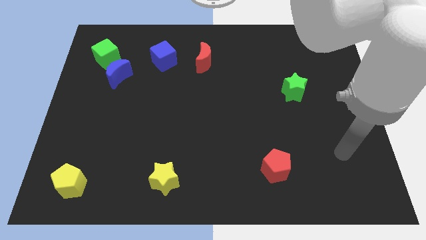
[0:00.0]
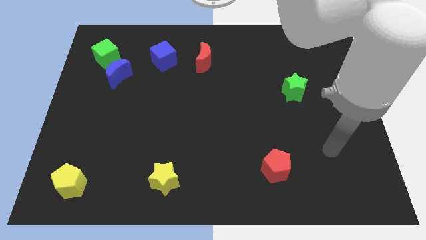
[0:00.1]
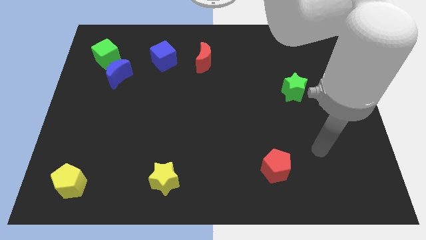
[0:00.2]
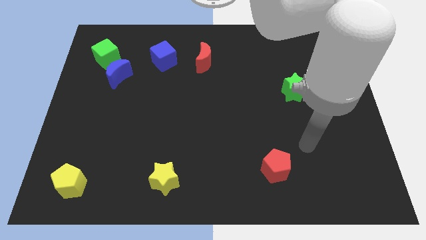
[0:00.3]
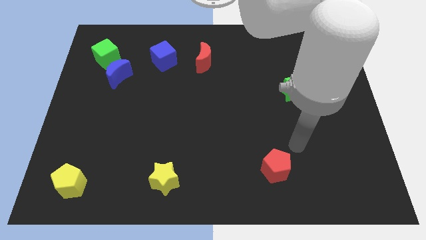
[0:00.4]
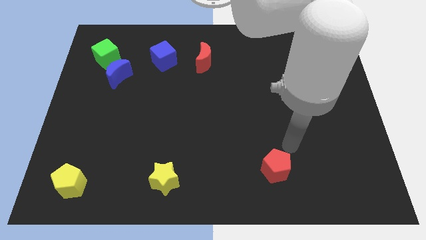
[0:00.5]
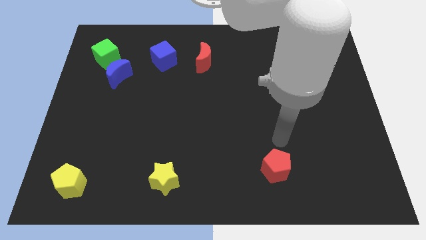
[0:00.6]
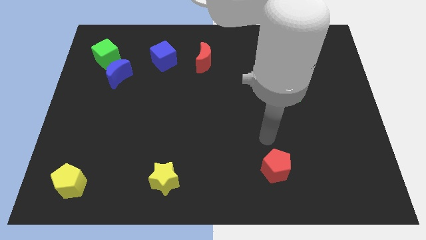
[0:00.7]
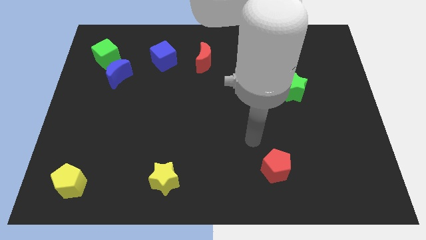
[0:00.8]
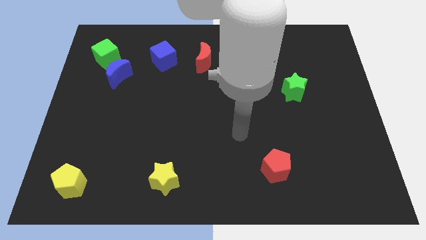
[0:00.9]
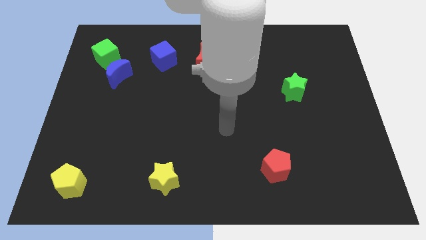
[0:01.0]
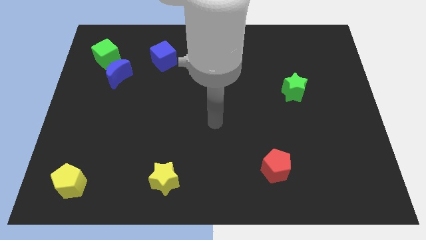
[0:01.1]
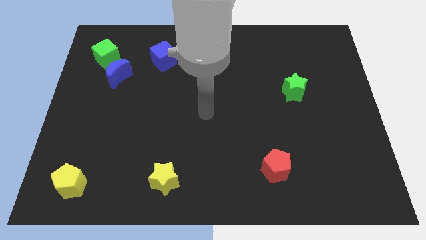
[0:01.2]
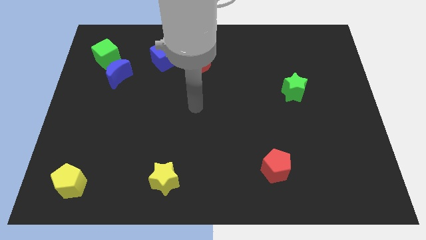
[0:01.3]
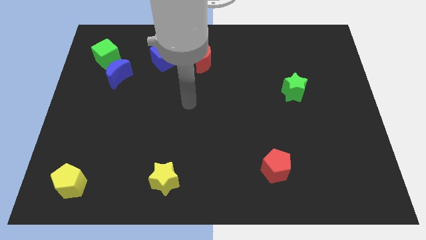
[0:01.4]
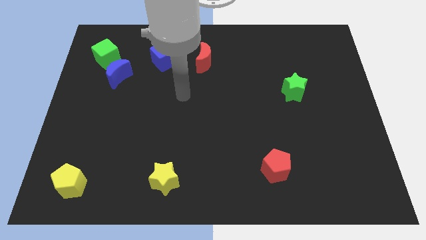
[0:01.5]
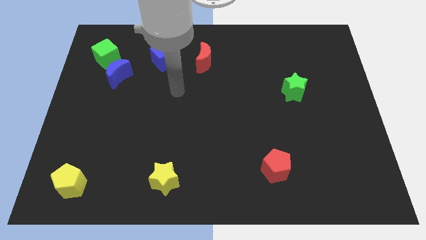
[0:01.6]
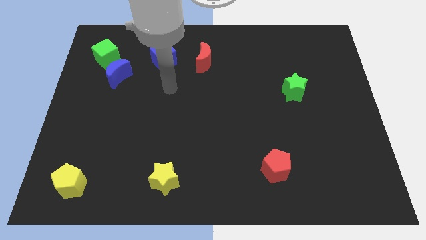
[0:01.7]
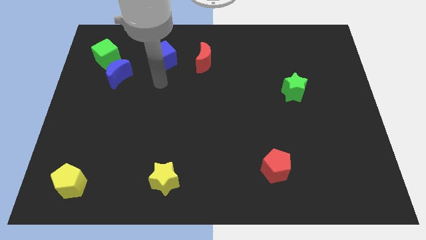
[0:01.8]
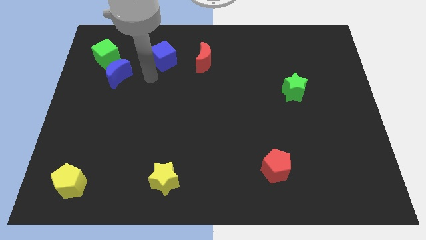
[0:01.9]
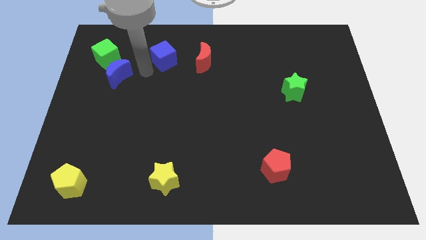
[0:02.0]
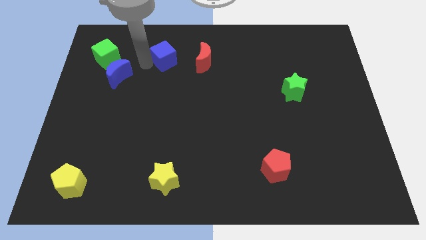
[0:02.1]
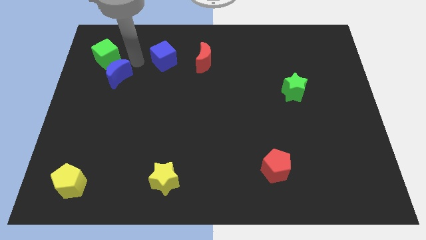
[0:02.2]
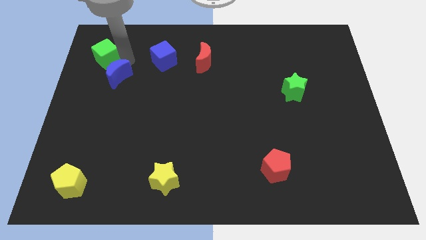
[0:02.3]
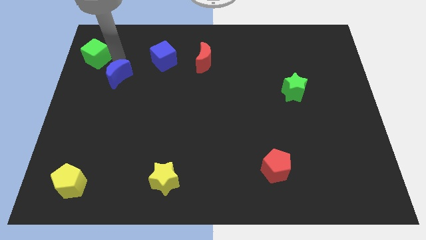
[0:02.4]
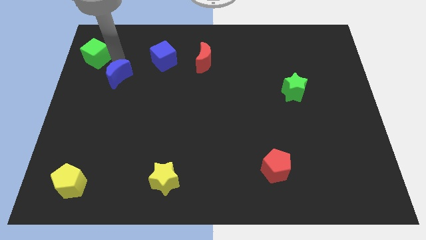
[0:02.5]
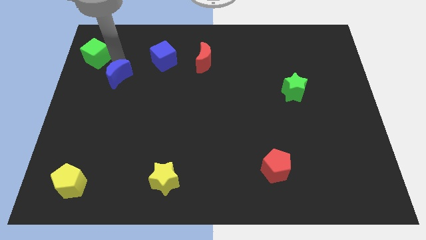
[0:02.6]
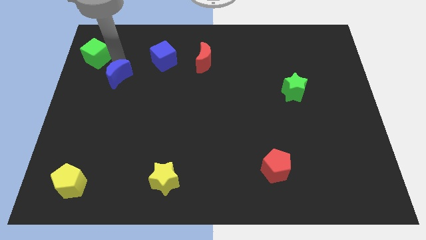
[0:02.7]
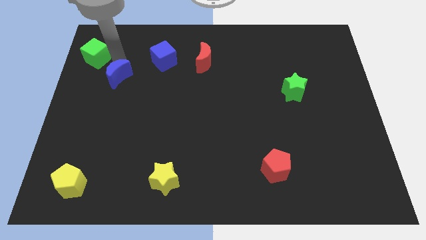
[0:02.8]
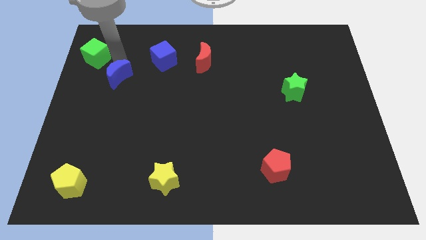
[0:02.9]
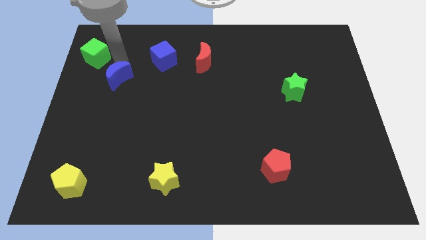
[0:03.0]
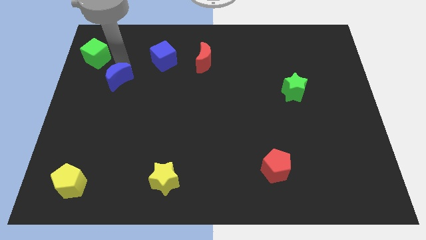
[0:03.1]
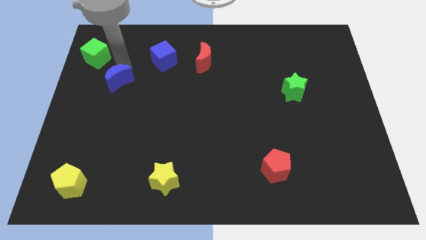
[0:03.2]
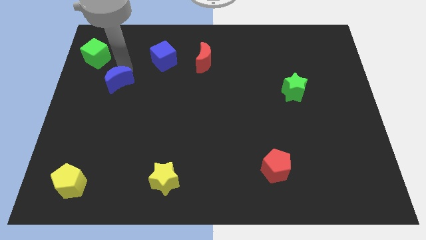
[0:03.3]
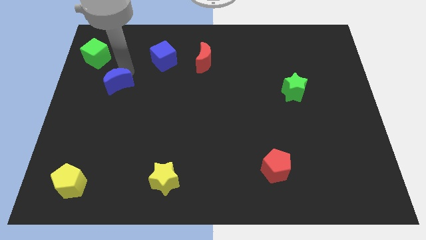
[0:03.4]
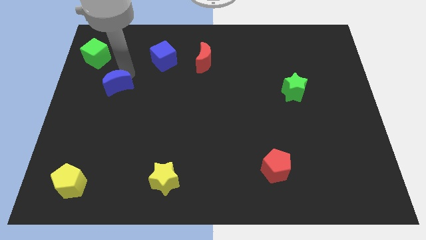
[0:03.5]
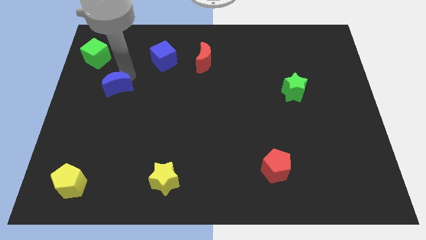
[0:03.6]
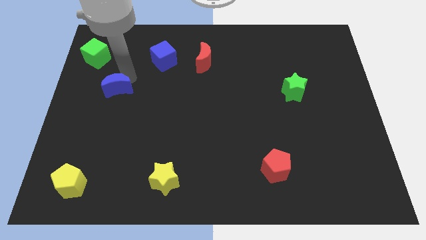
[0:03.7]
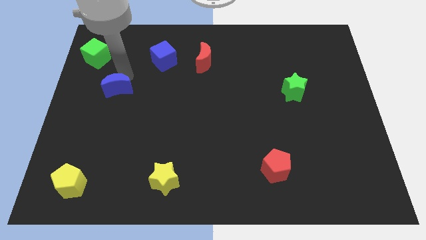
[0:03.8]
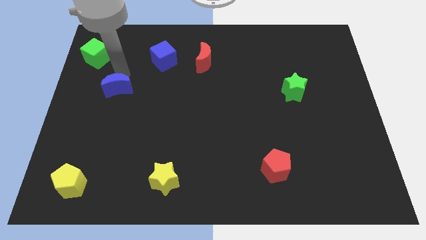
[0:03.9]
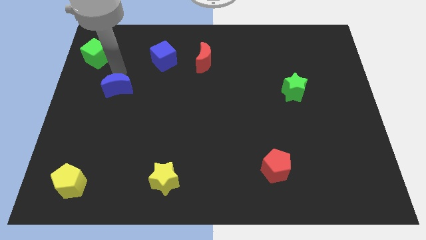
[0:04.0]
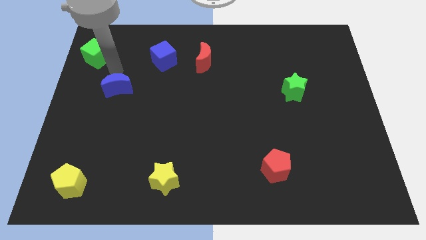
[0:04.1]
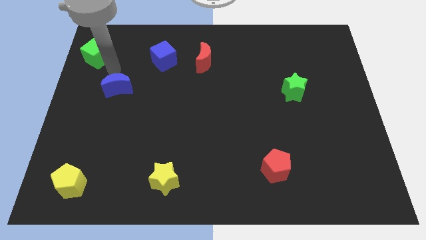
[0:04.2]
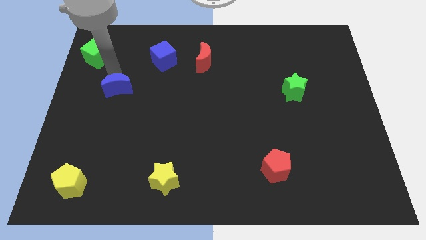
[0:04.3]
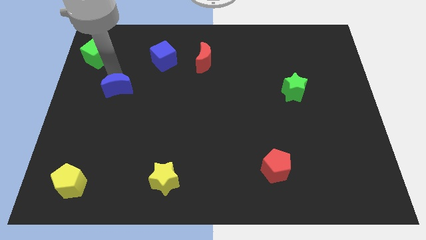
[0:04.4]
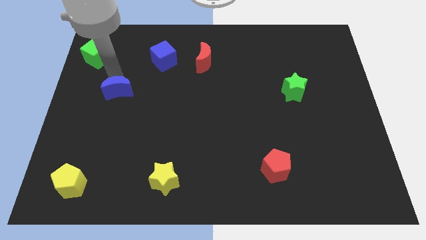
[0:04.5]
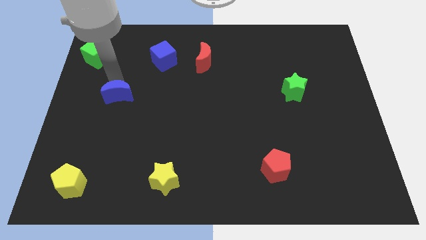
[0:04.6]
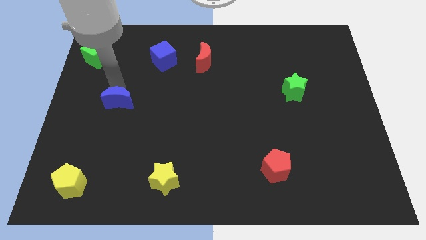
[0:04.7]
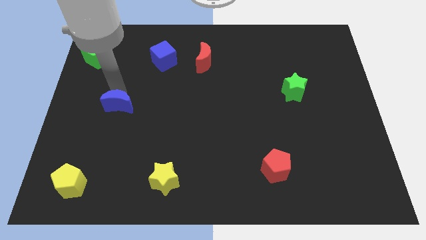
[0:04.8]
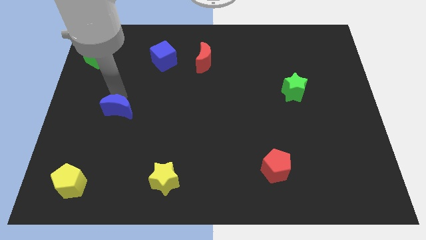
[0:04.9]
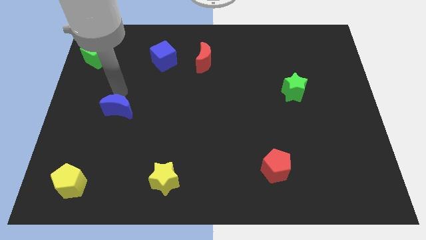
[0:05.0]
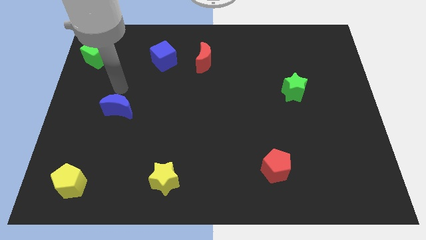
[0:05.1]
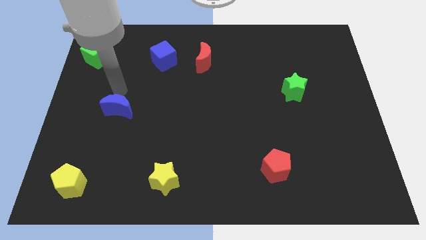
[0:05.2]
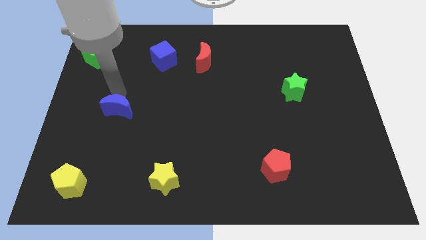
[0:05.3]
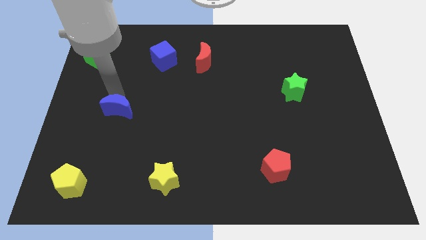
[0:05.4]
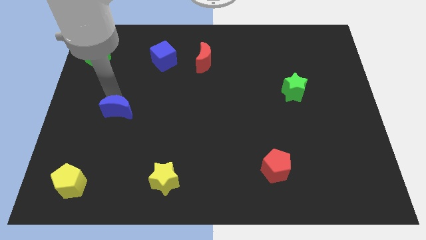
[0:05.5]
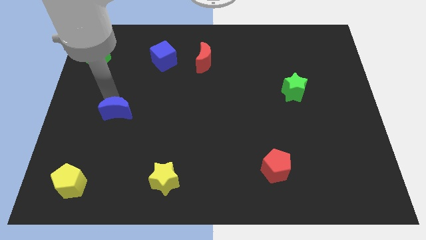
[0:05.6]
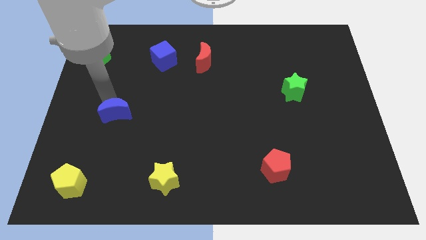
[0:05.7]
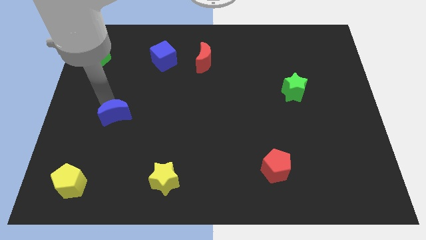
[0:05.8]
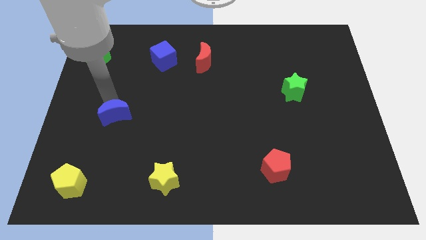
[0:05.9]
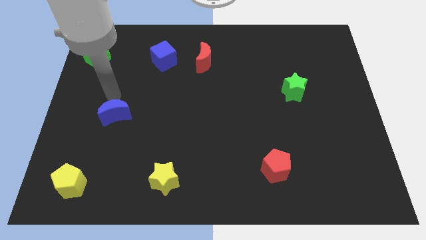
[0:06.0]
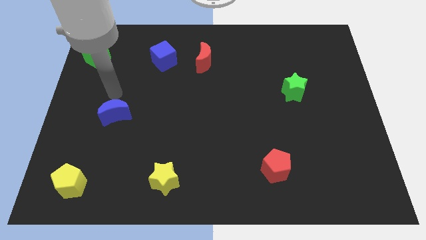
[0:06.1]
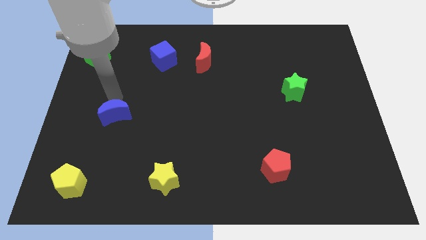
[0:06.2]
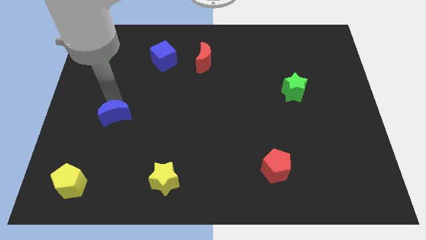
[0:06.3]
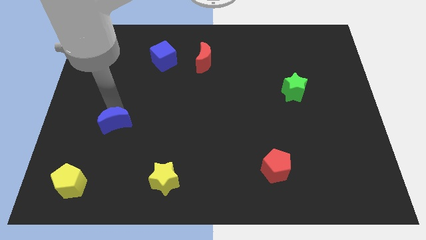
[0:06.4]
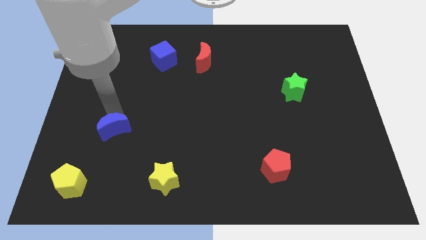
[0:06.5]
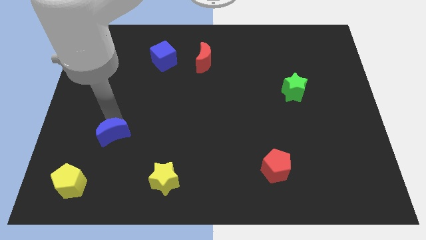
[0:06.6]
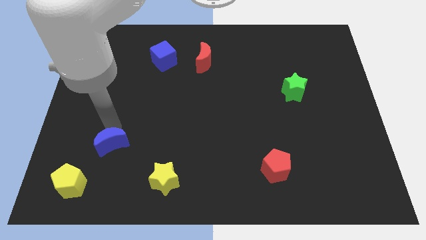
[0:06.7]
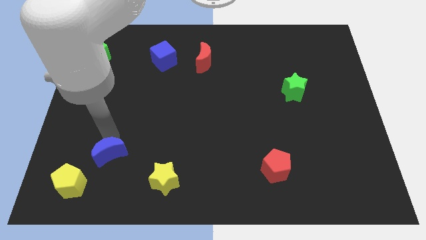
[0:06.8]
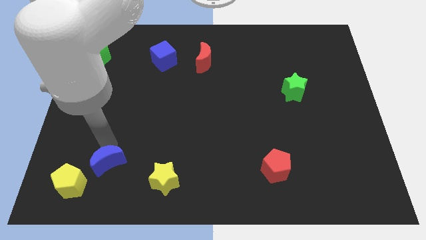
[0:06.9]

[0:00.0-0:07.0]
slide the blue moon to the right side of the yellow pentagon
